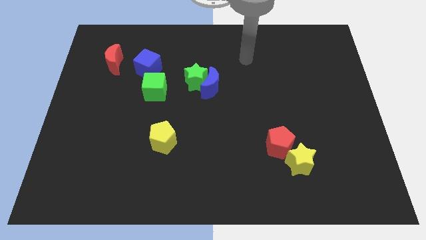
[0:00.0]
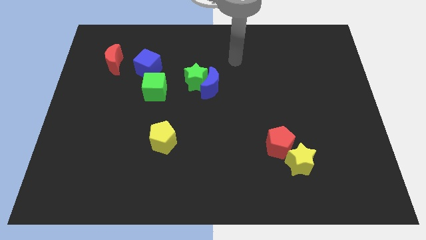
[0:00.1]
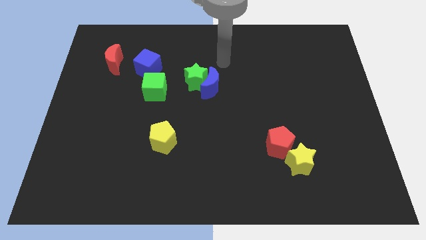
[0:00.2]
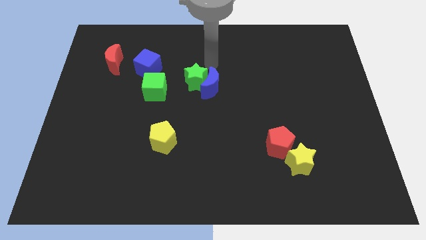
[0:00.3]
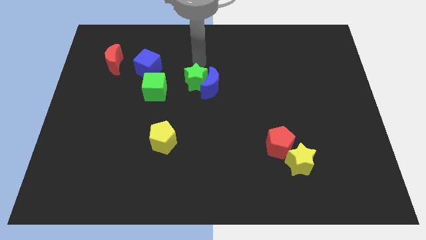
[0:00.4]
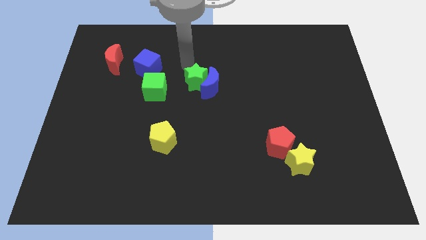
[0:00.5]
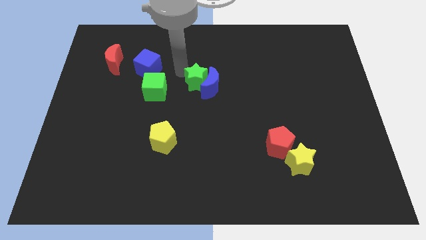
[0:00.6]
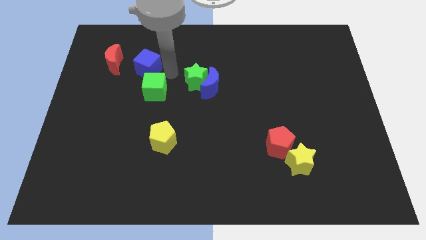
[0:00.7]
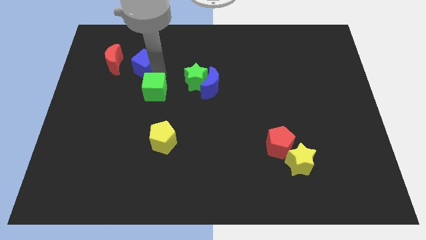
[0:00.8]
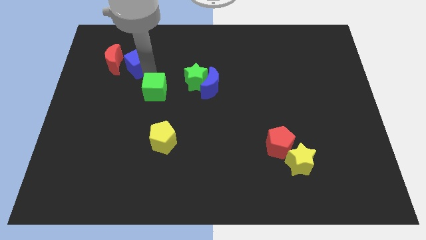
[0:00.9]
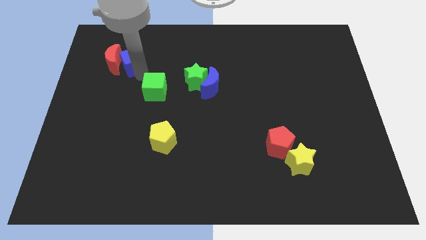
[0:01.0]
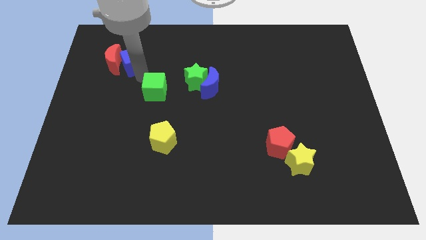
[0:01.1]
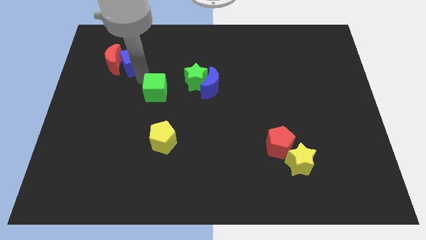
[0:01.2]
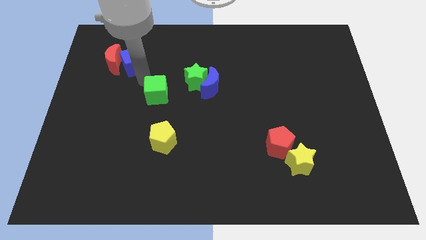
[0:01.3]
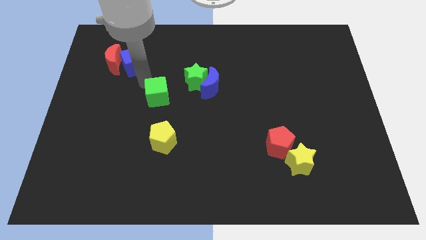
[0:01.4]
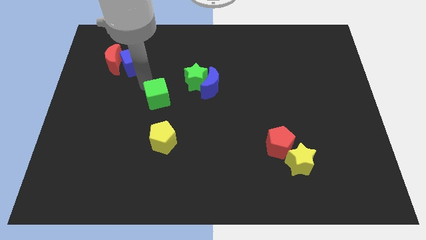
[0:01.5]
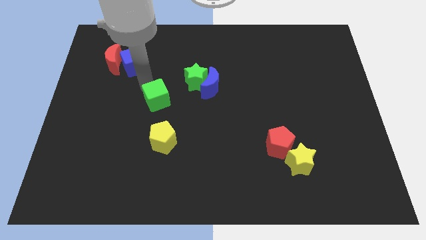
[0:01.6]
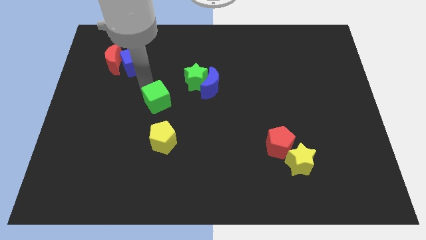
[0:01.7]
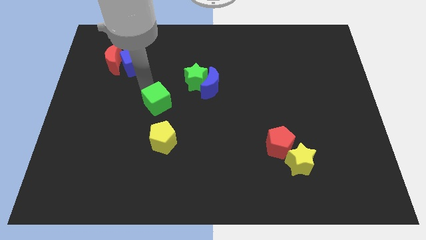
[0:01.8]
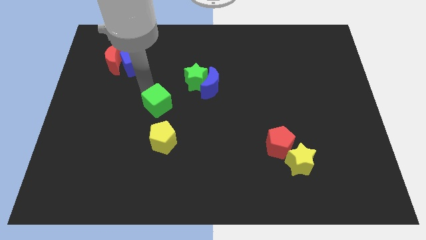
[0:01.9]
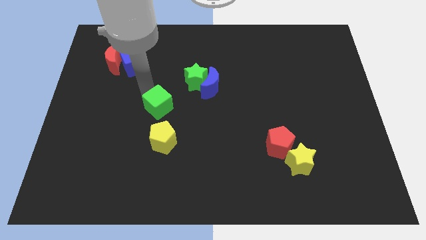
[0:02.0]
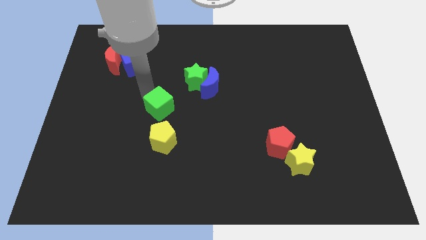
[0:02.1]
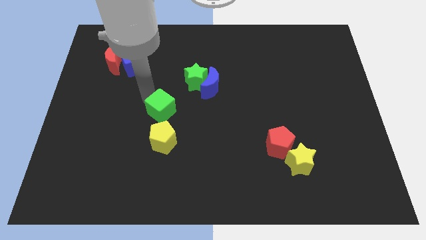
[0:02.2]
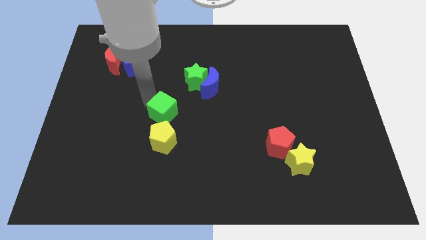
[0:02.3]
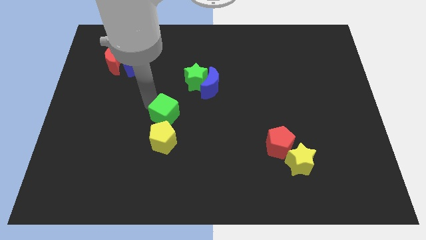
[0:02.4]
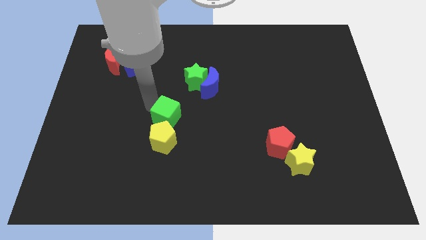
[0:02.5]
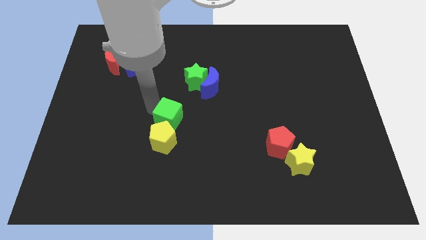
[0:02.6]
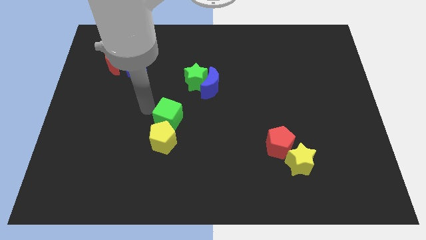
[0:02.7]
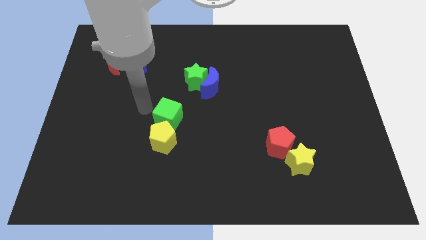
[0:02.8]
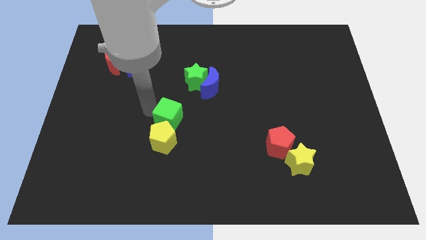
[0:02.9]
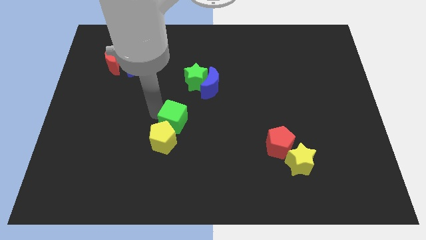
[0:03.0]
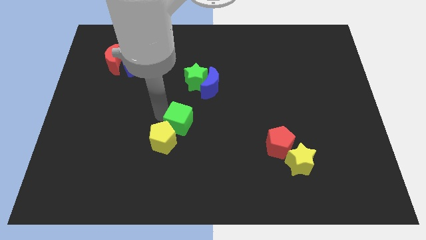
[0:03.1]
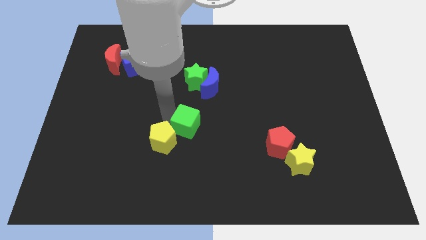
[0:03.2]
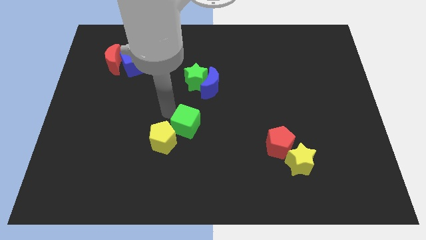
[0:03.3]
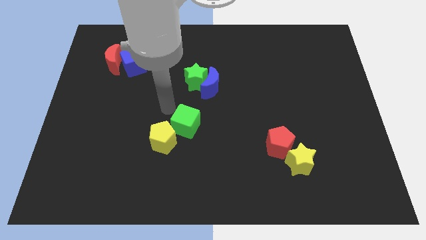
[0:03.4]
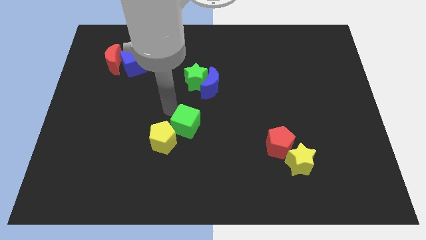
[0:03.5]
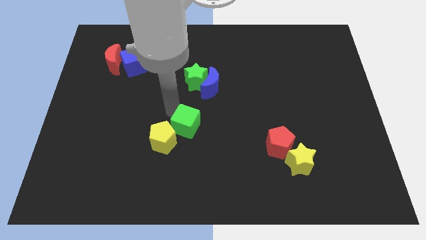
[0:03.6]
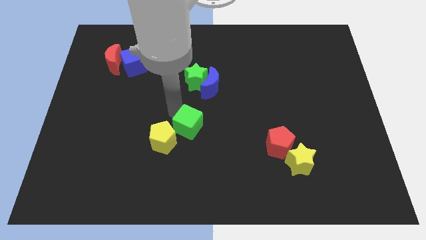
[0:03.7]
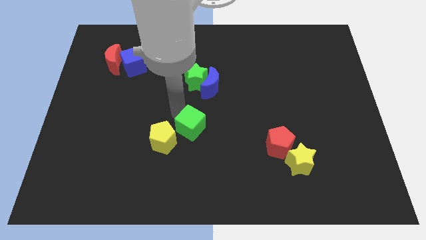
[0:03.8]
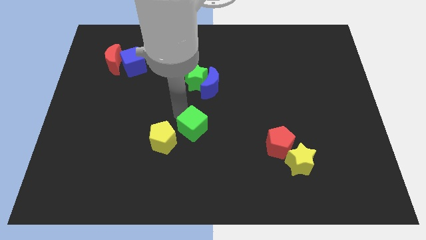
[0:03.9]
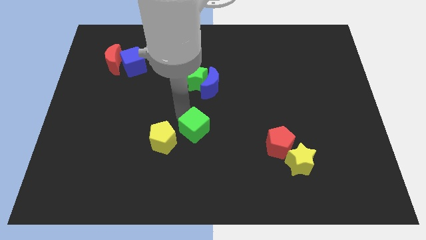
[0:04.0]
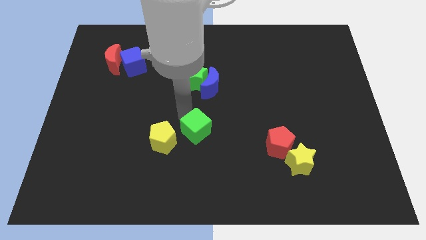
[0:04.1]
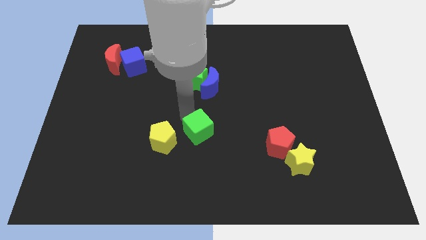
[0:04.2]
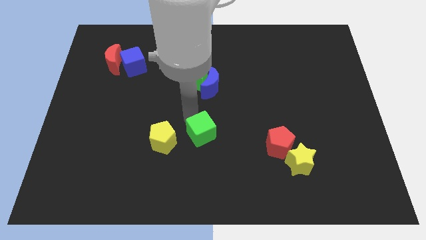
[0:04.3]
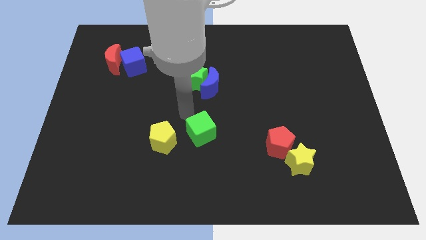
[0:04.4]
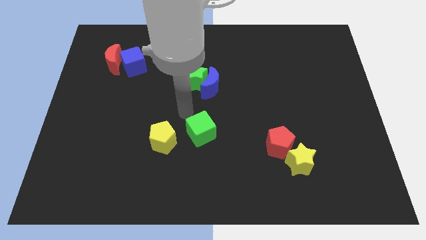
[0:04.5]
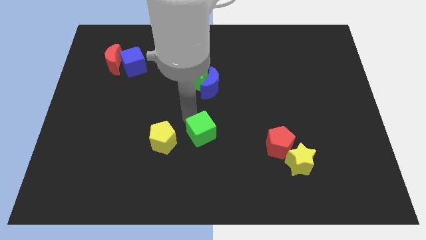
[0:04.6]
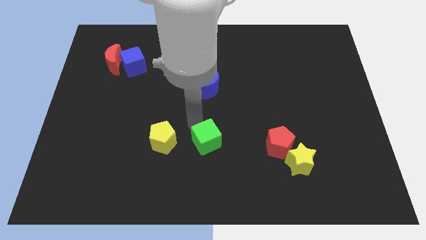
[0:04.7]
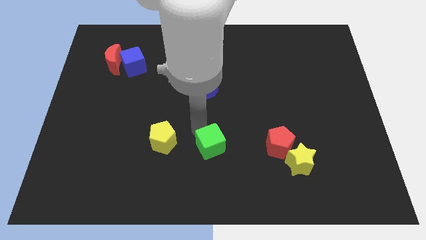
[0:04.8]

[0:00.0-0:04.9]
push the green cube downwards and then to the right

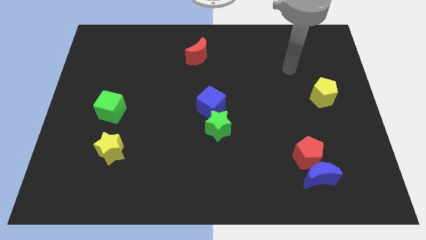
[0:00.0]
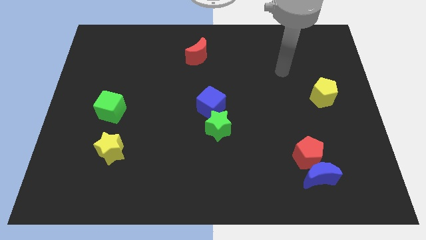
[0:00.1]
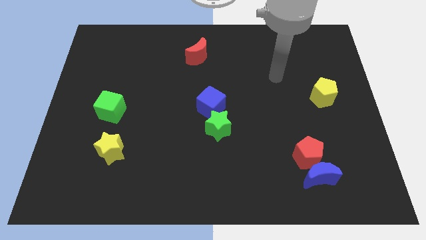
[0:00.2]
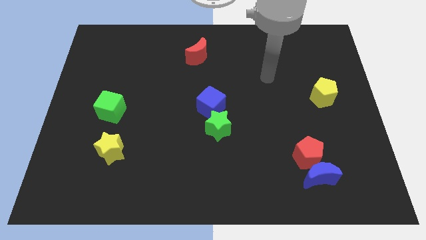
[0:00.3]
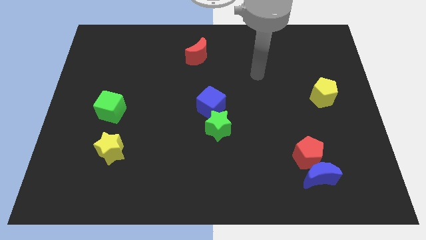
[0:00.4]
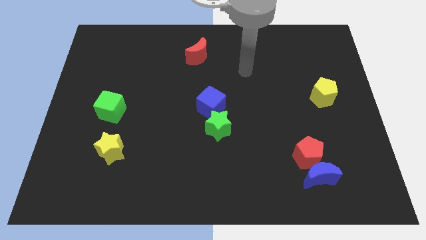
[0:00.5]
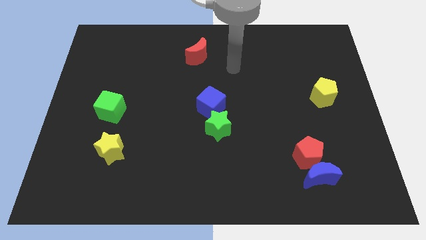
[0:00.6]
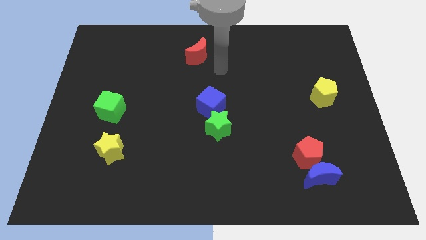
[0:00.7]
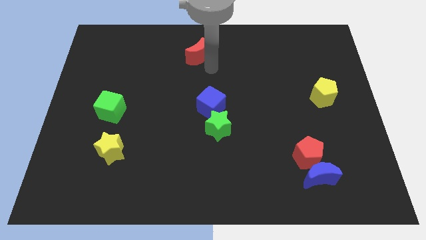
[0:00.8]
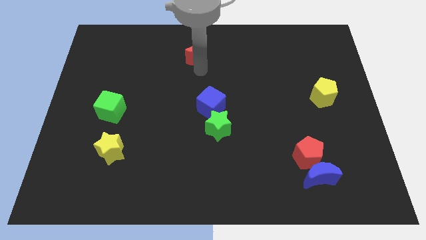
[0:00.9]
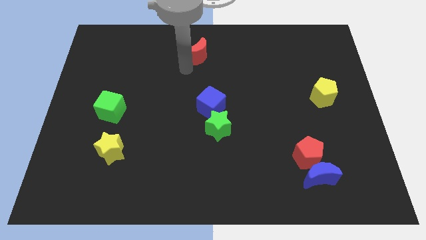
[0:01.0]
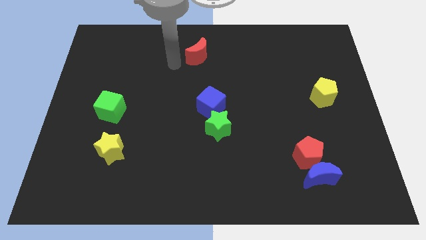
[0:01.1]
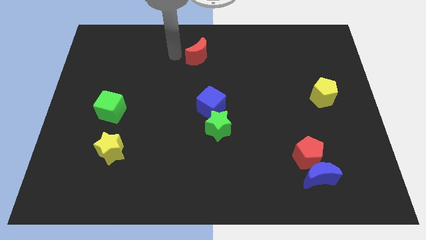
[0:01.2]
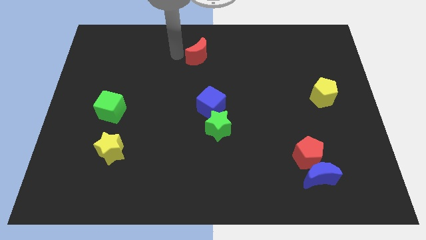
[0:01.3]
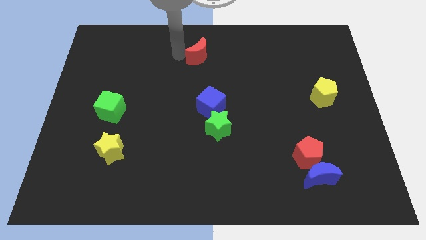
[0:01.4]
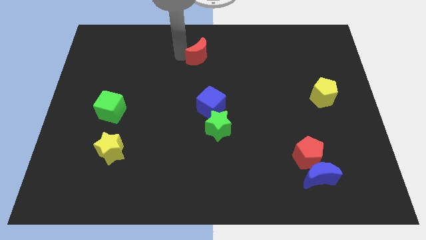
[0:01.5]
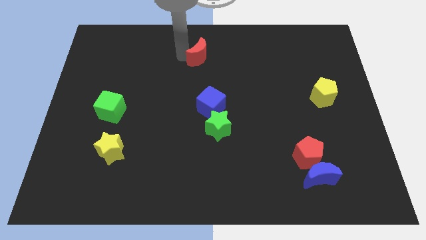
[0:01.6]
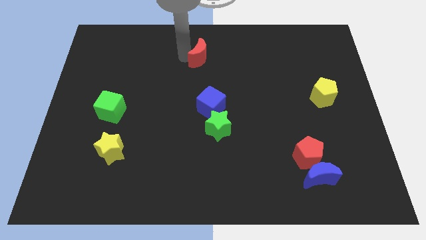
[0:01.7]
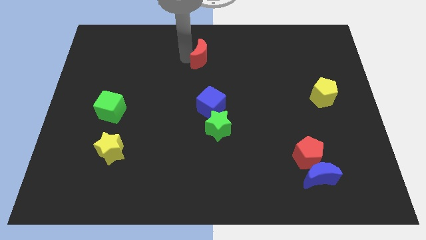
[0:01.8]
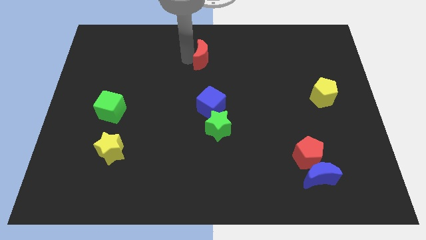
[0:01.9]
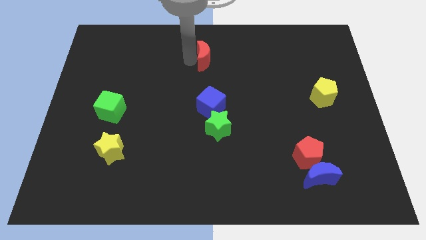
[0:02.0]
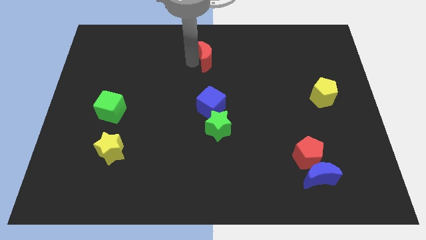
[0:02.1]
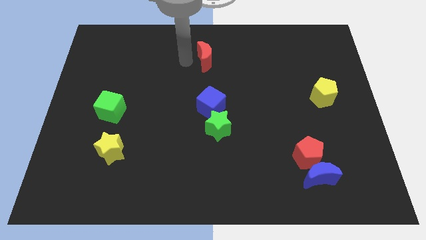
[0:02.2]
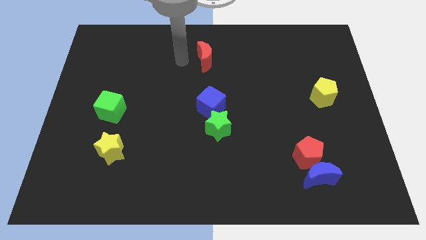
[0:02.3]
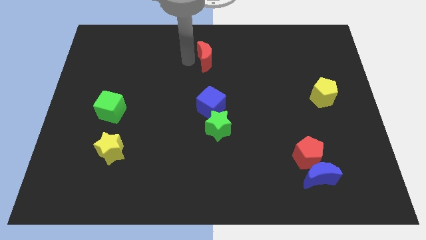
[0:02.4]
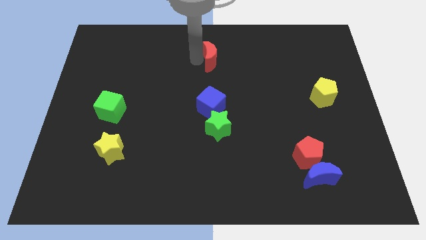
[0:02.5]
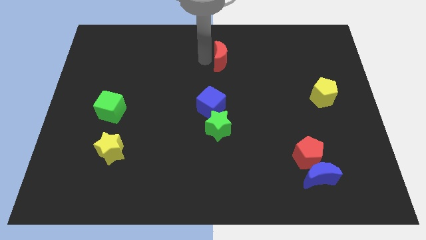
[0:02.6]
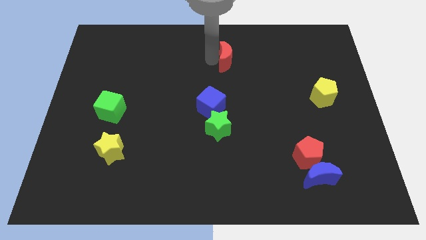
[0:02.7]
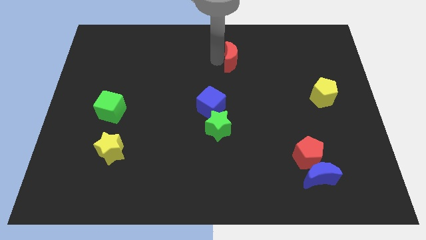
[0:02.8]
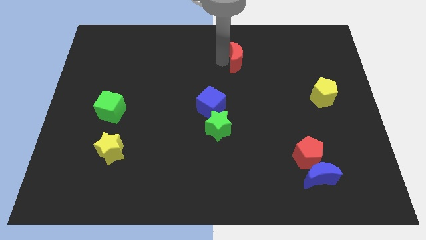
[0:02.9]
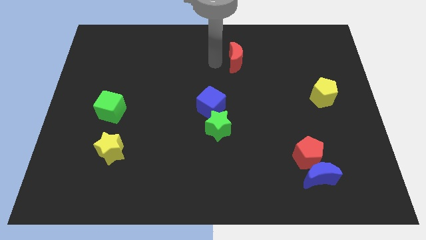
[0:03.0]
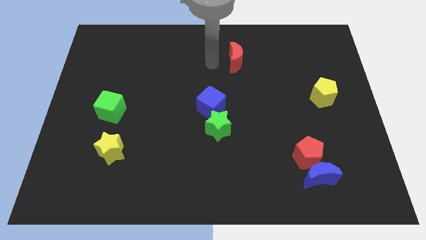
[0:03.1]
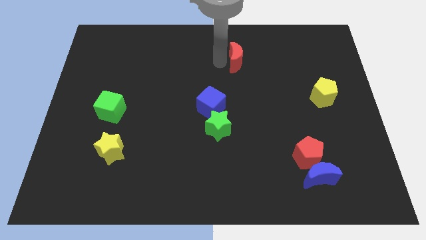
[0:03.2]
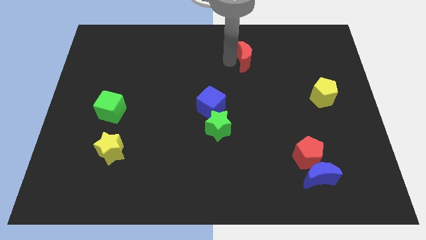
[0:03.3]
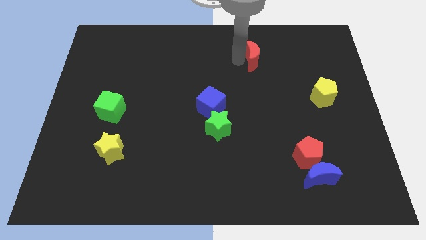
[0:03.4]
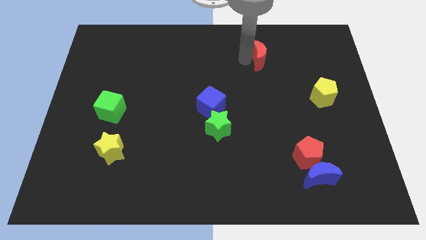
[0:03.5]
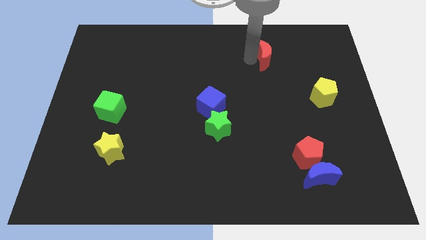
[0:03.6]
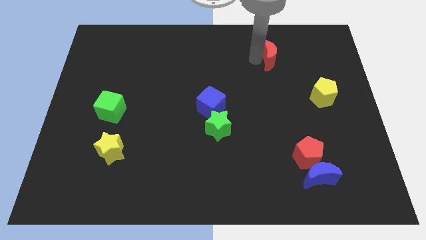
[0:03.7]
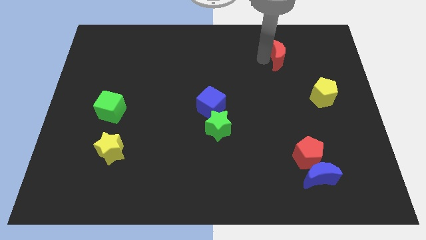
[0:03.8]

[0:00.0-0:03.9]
move the red moon to the right
